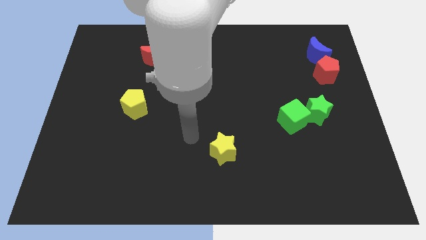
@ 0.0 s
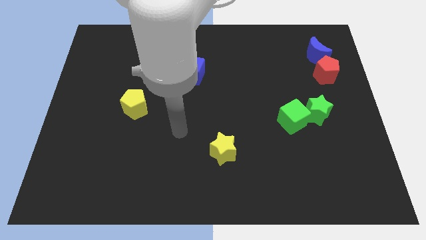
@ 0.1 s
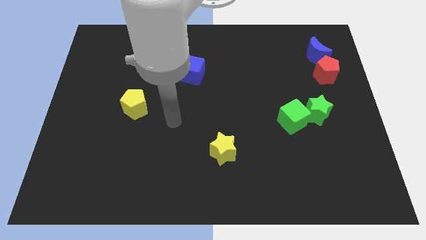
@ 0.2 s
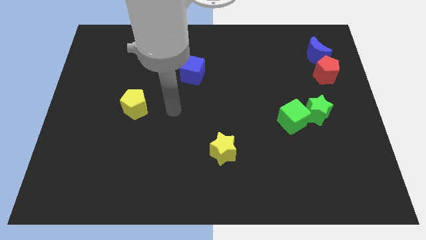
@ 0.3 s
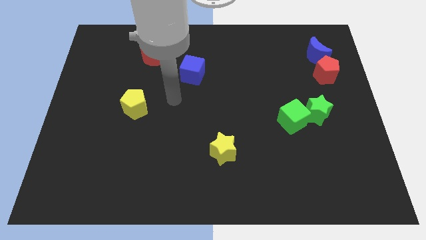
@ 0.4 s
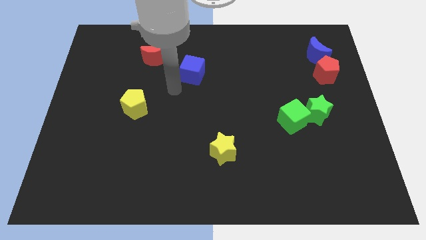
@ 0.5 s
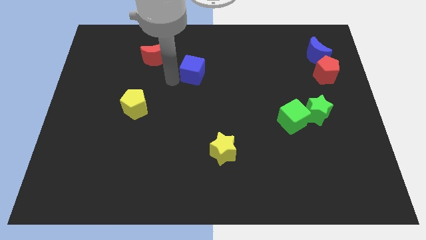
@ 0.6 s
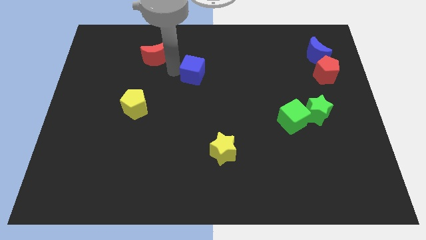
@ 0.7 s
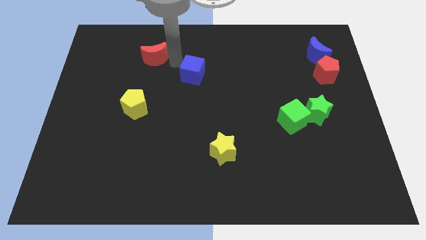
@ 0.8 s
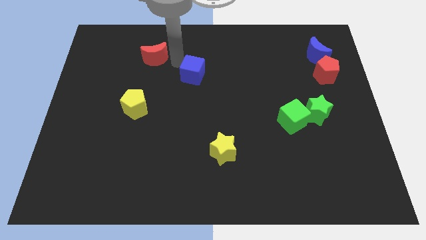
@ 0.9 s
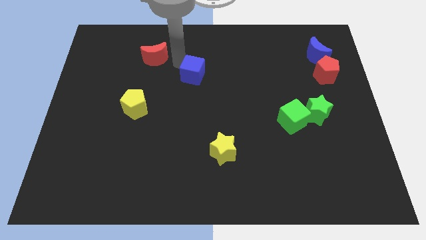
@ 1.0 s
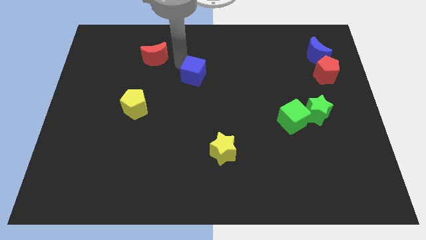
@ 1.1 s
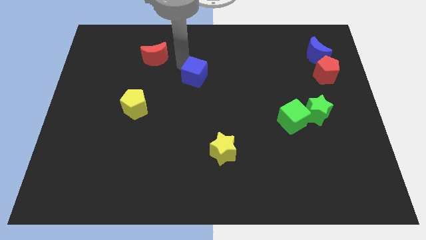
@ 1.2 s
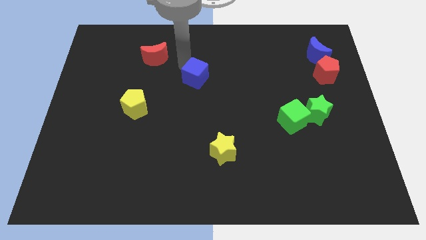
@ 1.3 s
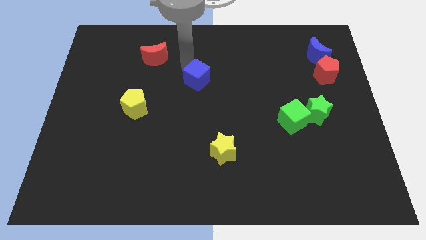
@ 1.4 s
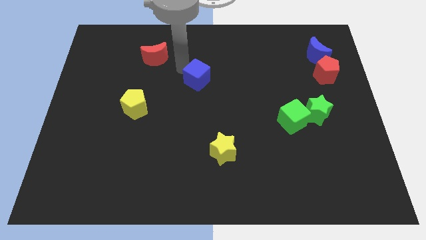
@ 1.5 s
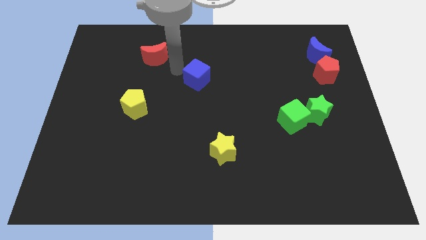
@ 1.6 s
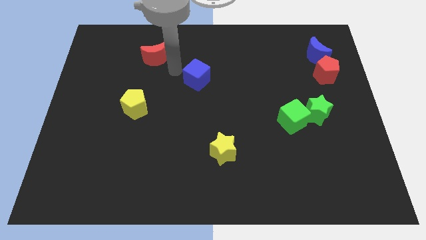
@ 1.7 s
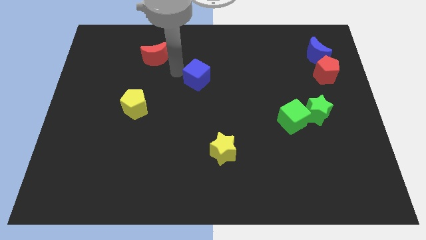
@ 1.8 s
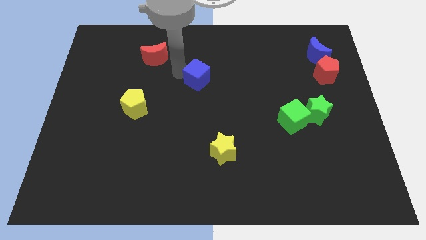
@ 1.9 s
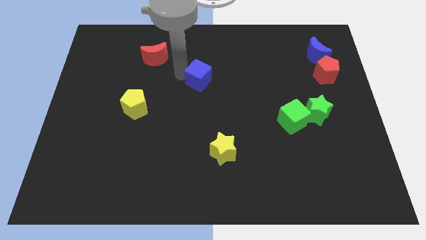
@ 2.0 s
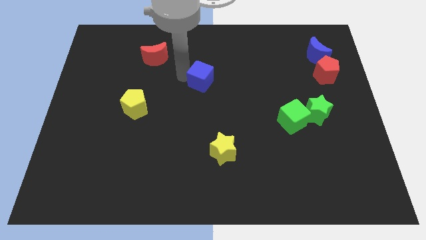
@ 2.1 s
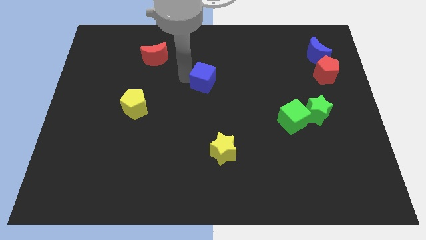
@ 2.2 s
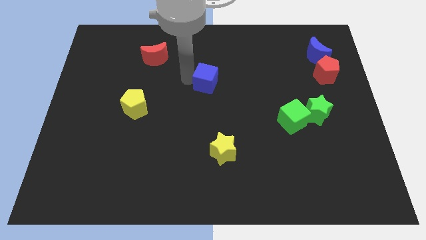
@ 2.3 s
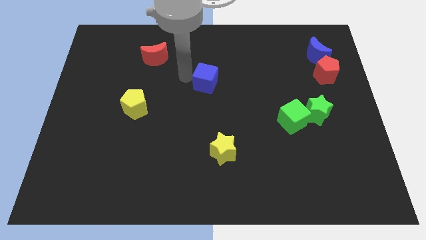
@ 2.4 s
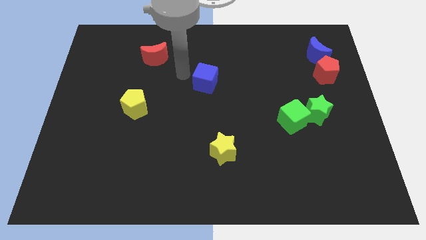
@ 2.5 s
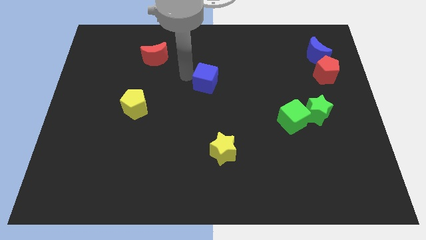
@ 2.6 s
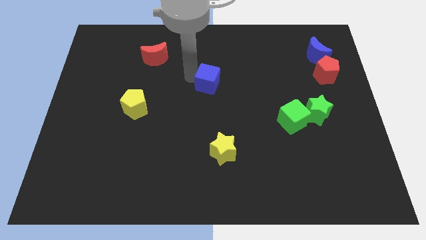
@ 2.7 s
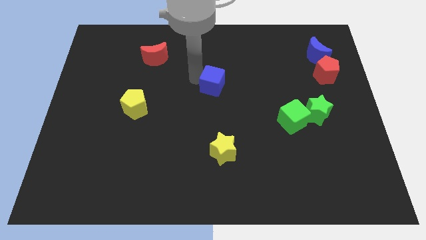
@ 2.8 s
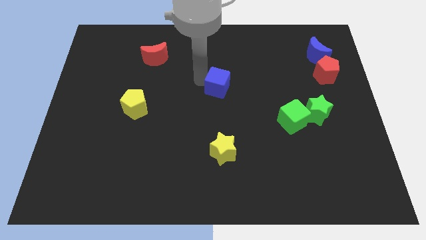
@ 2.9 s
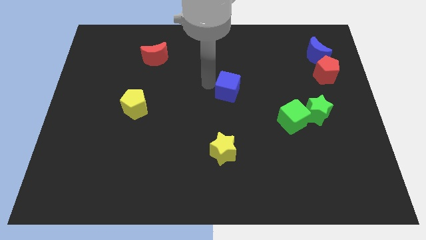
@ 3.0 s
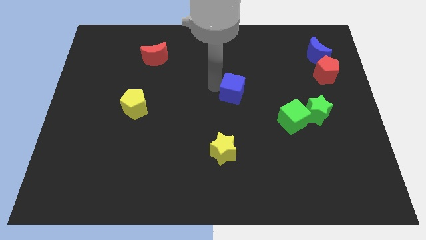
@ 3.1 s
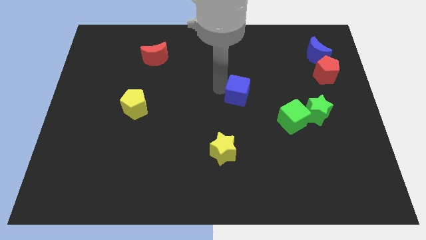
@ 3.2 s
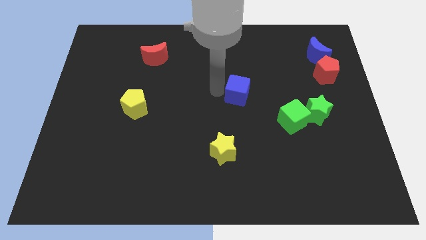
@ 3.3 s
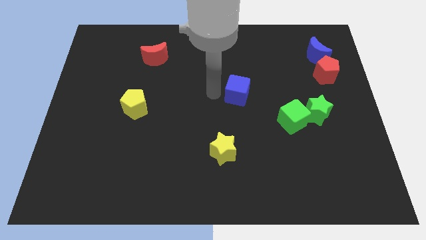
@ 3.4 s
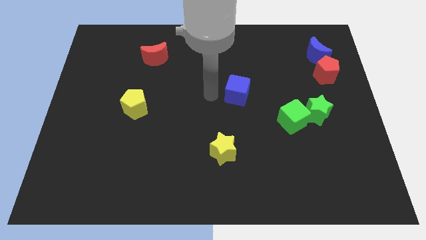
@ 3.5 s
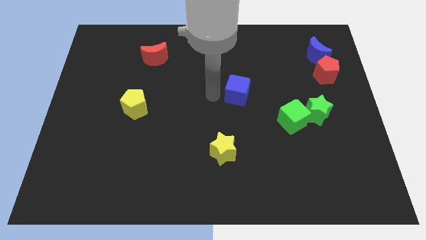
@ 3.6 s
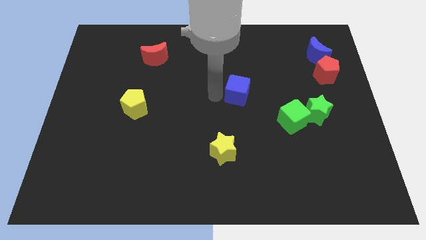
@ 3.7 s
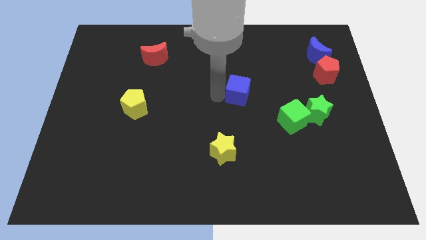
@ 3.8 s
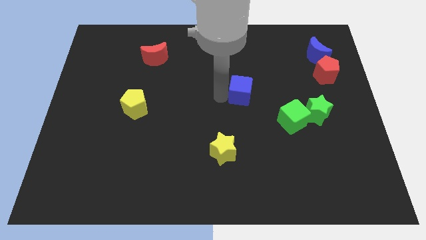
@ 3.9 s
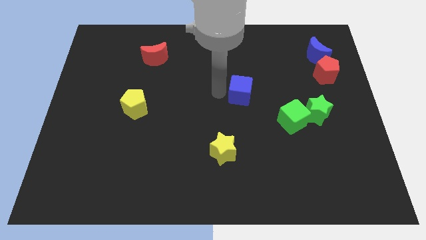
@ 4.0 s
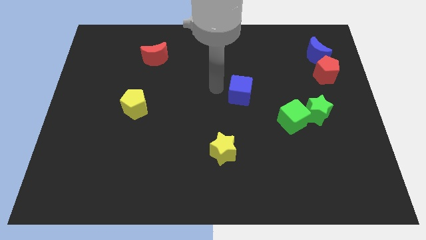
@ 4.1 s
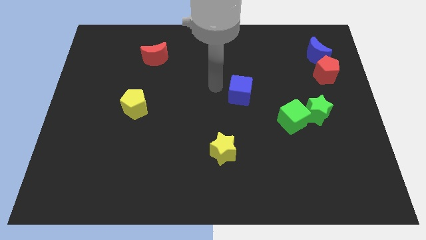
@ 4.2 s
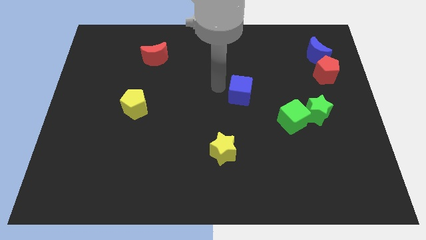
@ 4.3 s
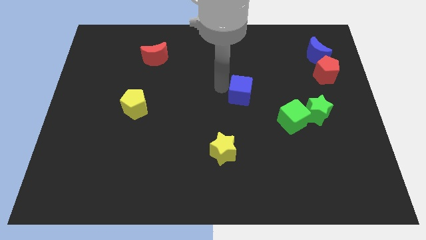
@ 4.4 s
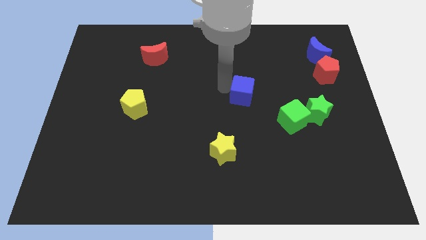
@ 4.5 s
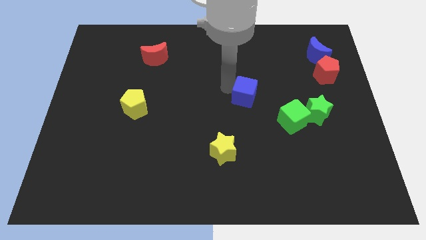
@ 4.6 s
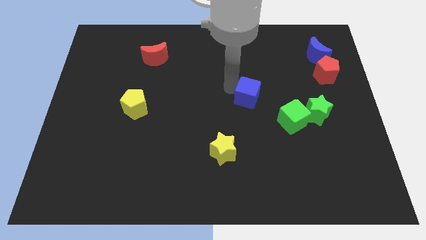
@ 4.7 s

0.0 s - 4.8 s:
slide the blue cube to the top left side of the green cube

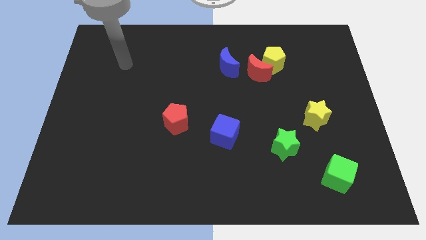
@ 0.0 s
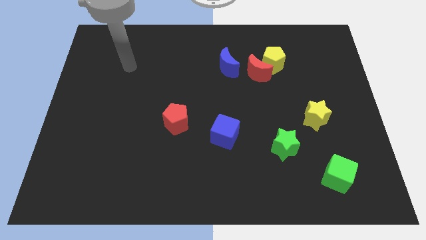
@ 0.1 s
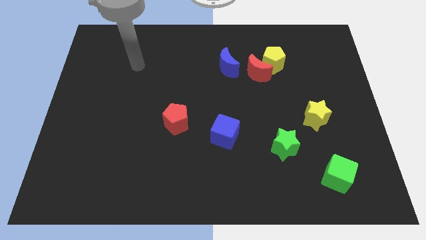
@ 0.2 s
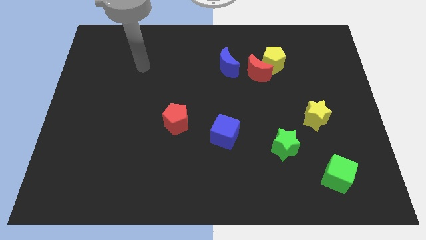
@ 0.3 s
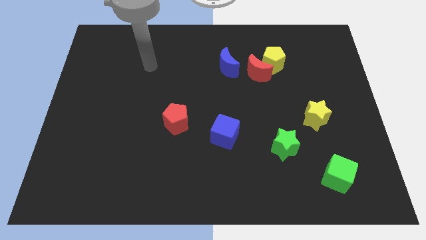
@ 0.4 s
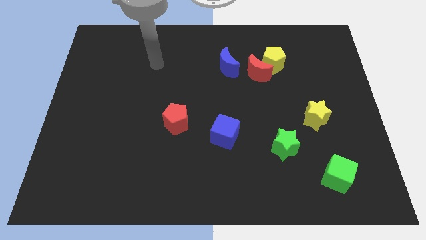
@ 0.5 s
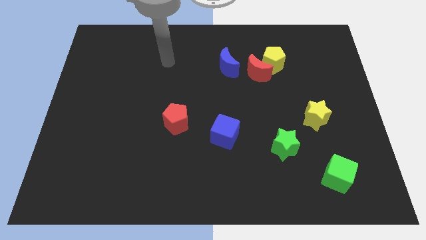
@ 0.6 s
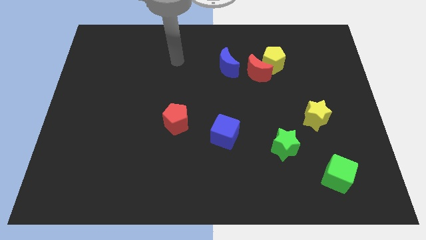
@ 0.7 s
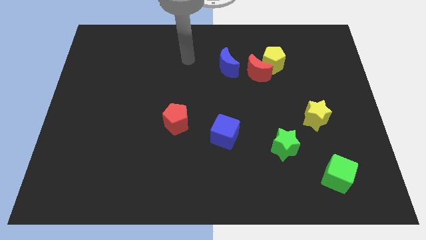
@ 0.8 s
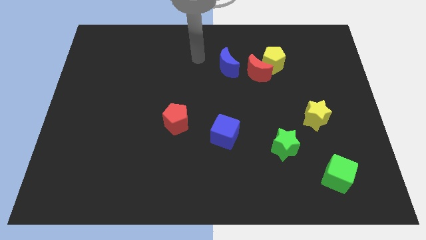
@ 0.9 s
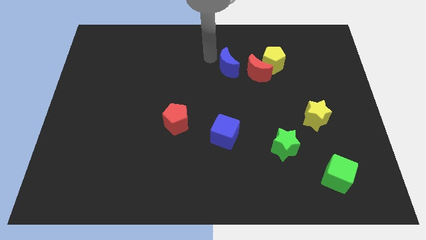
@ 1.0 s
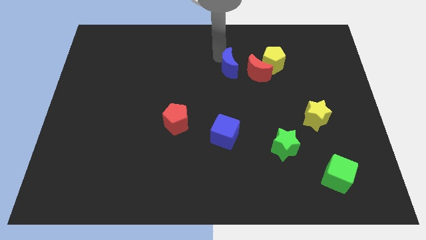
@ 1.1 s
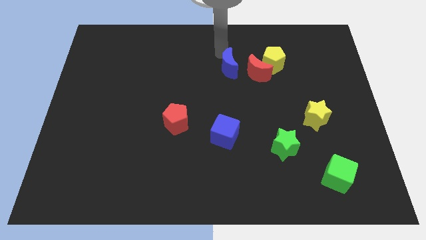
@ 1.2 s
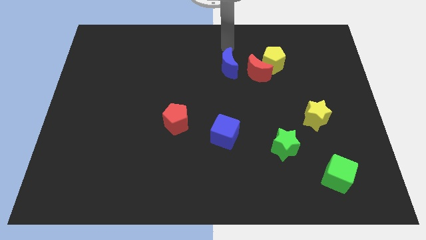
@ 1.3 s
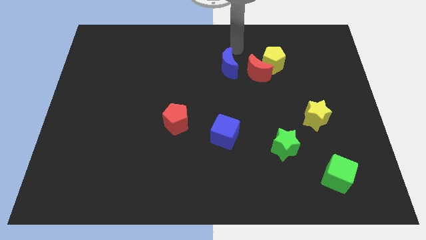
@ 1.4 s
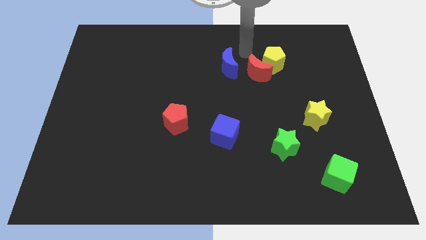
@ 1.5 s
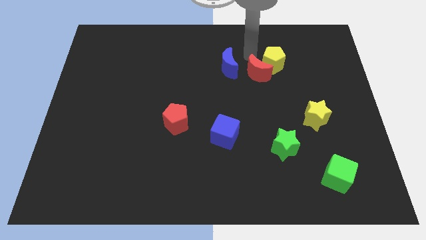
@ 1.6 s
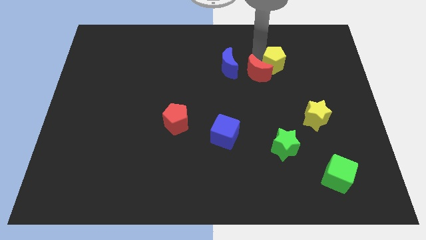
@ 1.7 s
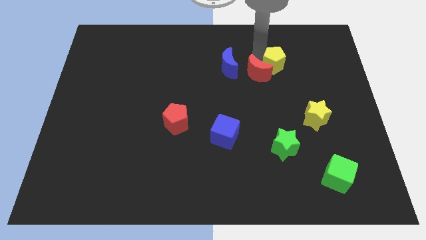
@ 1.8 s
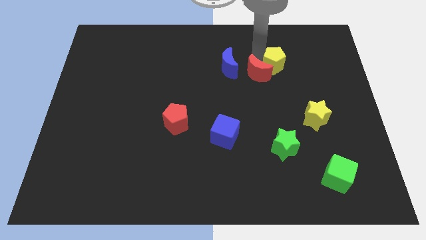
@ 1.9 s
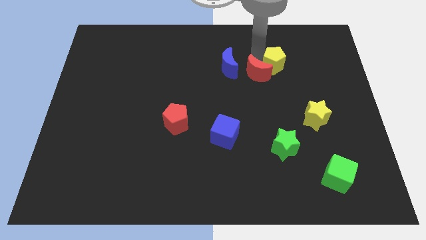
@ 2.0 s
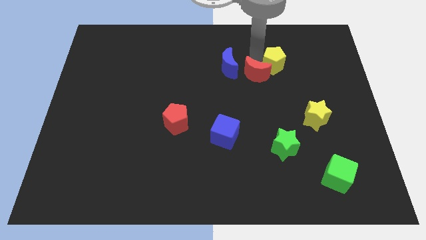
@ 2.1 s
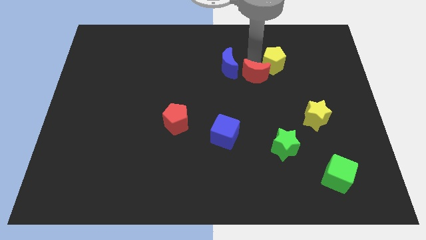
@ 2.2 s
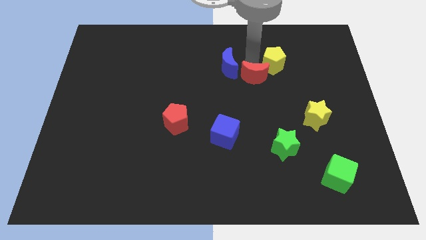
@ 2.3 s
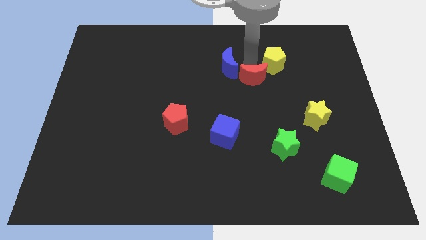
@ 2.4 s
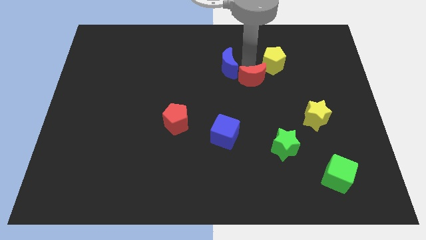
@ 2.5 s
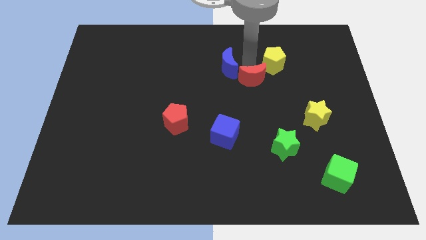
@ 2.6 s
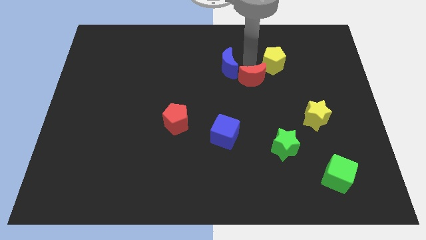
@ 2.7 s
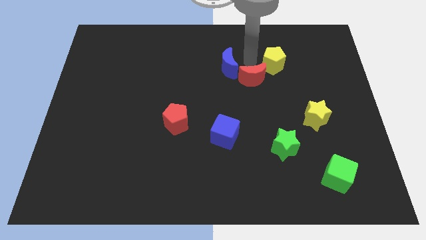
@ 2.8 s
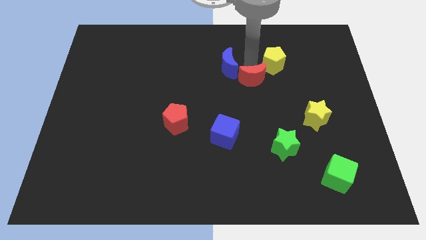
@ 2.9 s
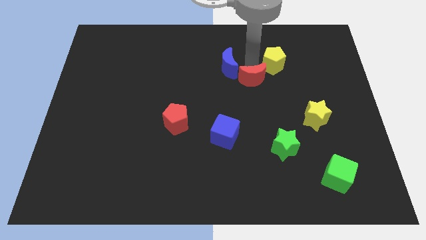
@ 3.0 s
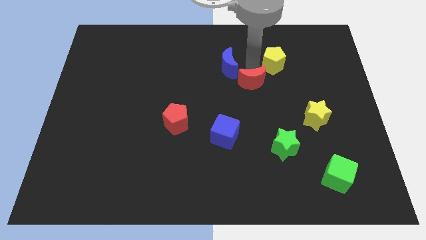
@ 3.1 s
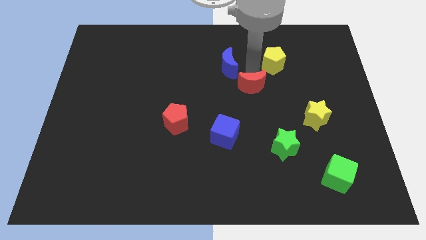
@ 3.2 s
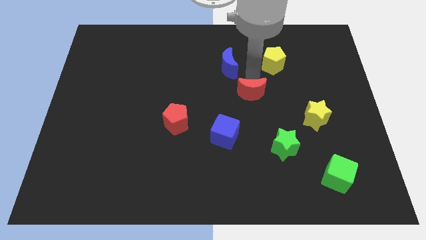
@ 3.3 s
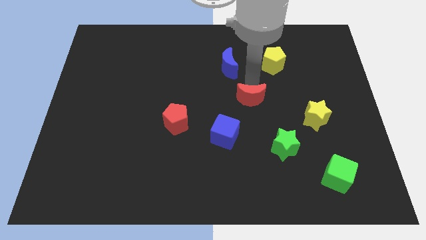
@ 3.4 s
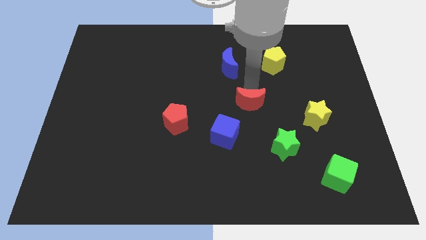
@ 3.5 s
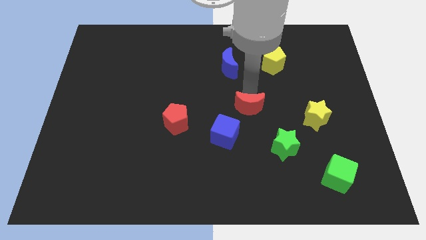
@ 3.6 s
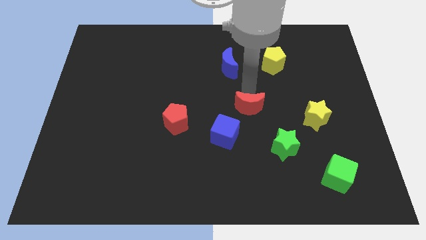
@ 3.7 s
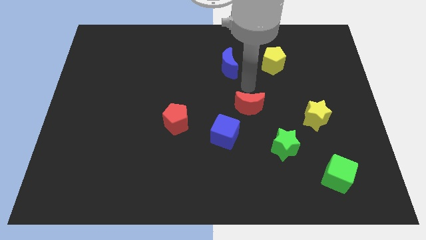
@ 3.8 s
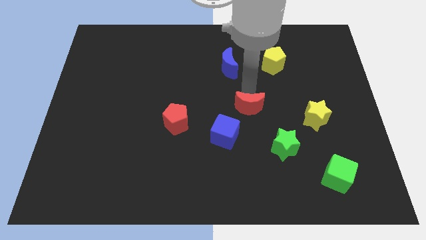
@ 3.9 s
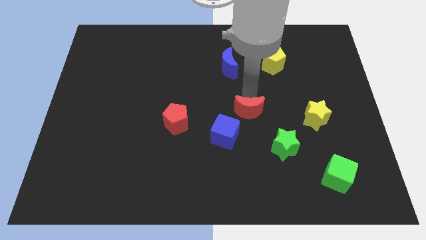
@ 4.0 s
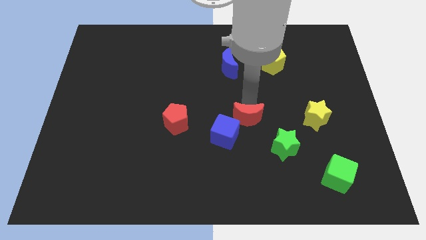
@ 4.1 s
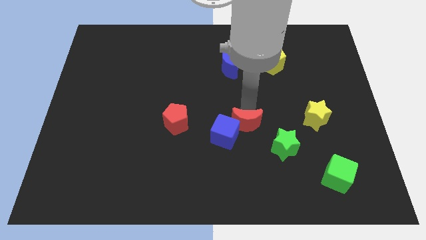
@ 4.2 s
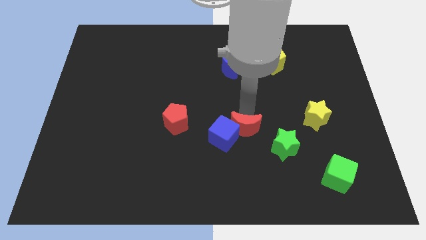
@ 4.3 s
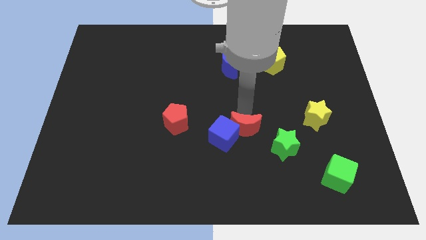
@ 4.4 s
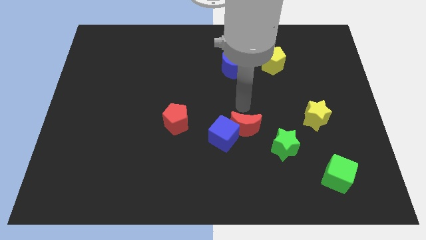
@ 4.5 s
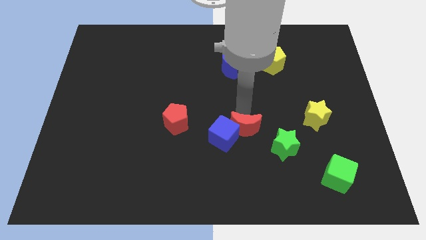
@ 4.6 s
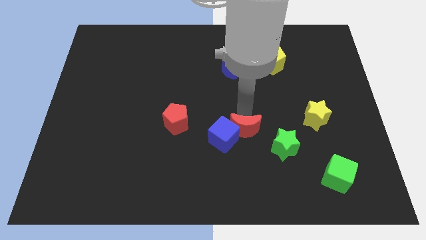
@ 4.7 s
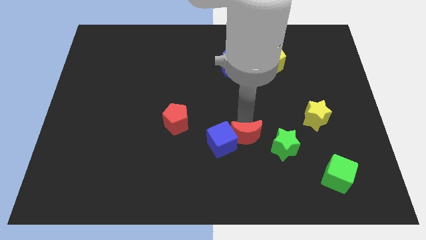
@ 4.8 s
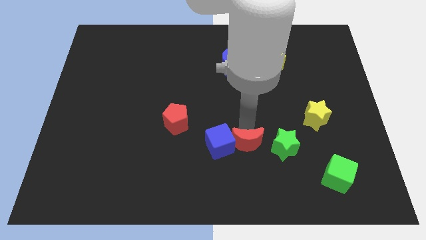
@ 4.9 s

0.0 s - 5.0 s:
move the red moon to the bottom right side of the blue cube
